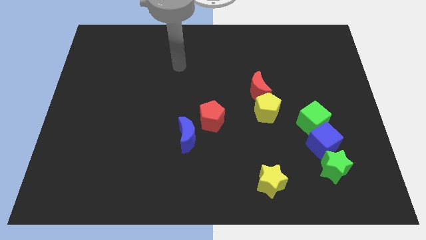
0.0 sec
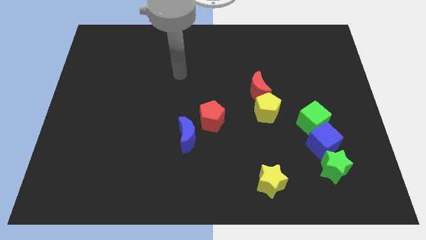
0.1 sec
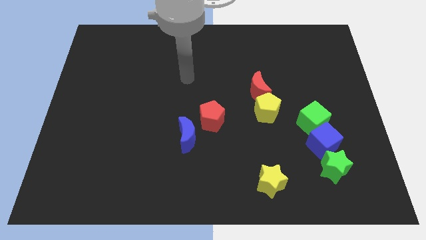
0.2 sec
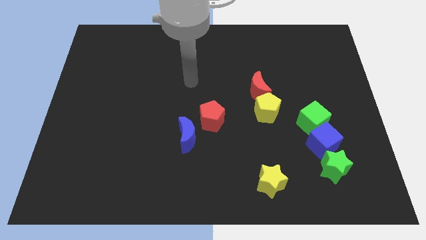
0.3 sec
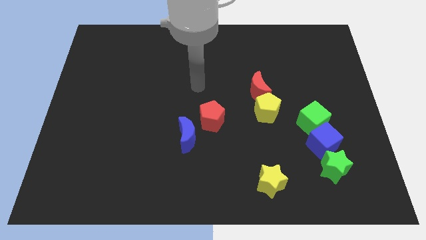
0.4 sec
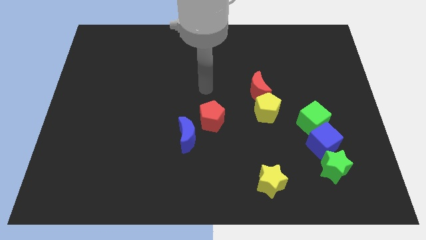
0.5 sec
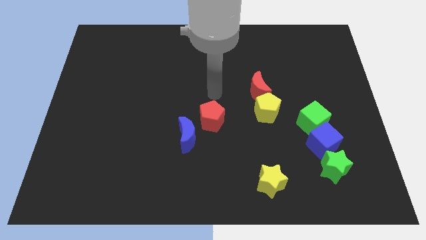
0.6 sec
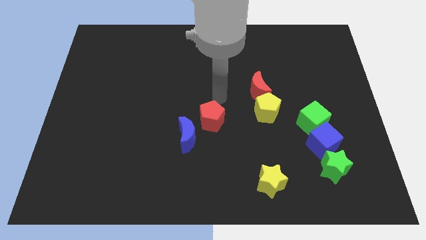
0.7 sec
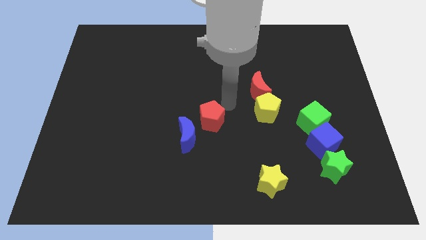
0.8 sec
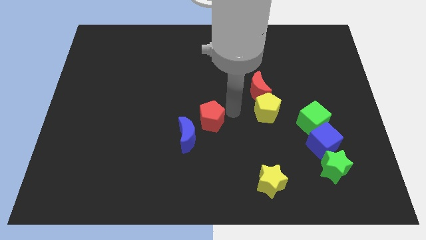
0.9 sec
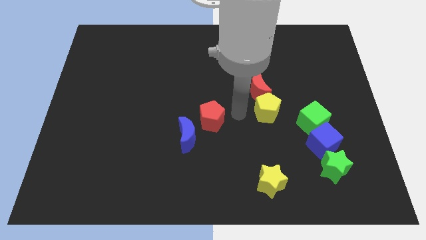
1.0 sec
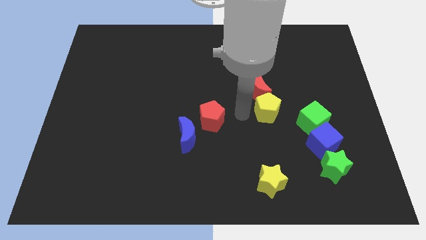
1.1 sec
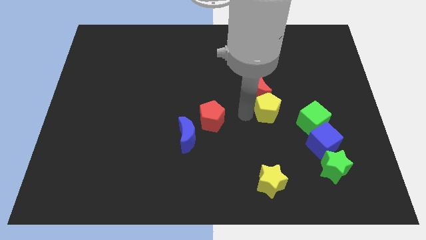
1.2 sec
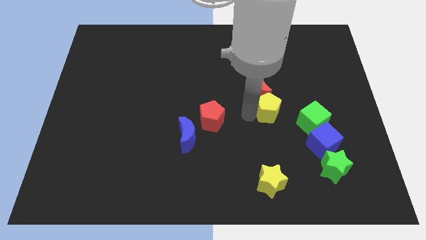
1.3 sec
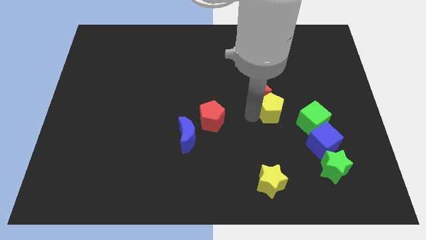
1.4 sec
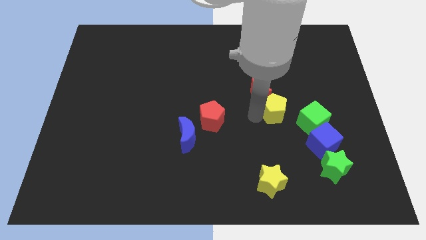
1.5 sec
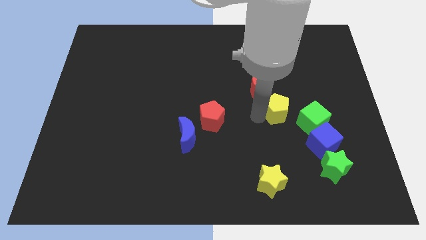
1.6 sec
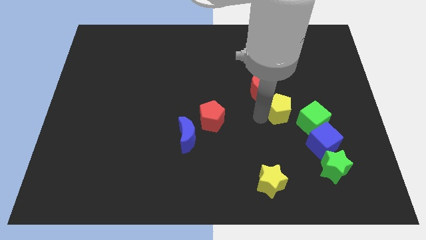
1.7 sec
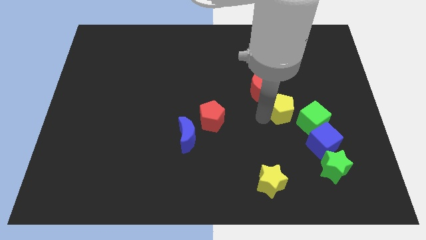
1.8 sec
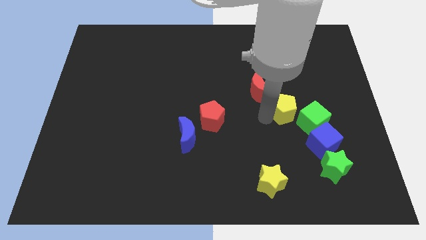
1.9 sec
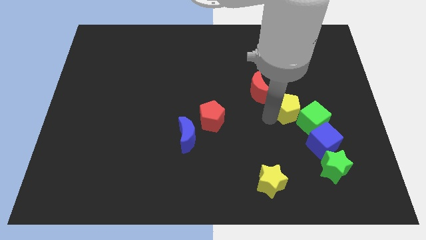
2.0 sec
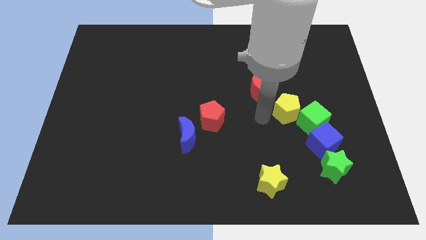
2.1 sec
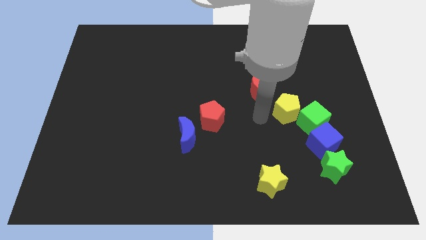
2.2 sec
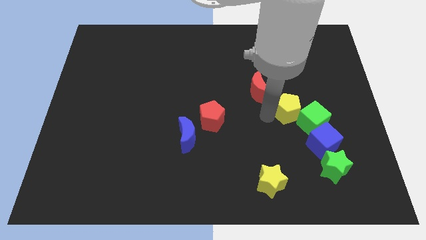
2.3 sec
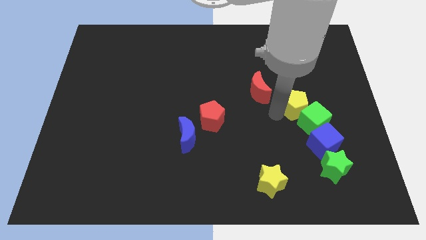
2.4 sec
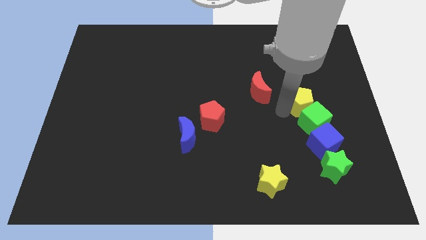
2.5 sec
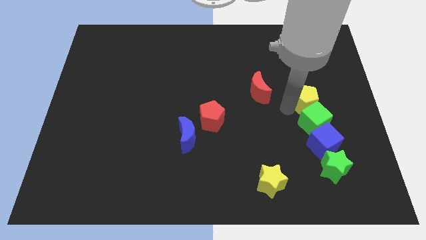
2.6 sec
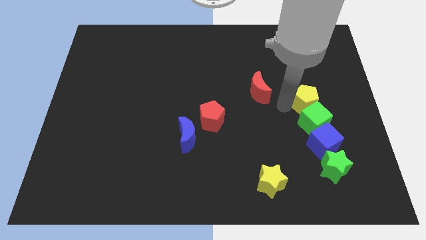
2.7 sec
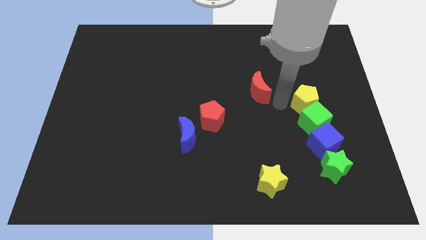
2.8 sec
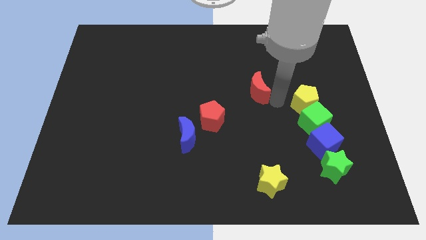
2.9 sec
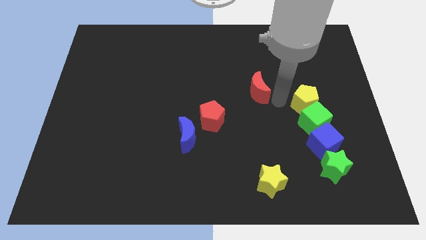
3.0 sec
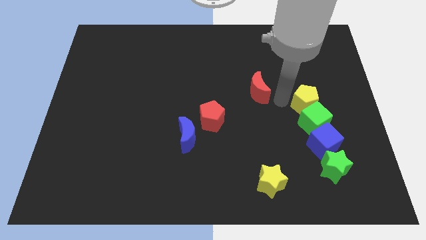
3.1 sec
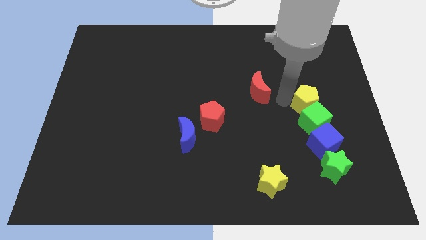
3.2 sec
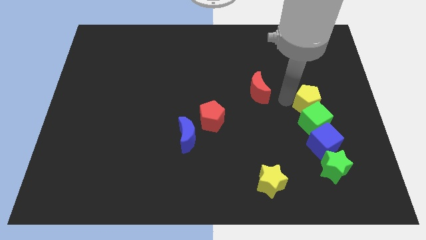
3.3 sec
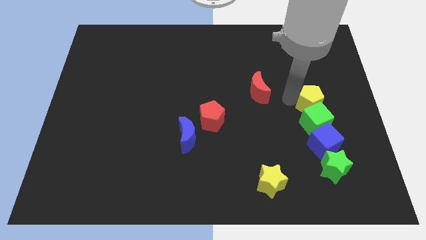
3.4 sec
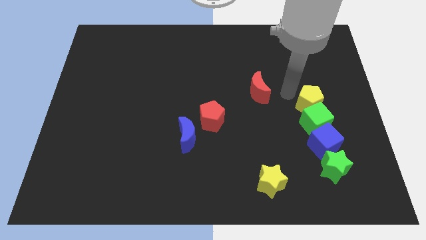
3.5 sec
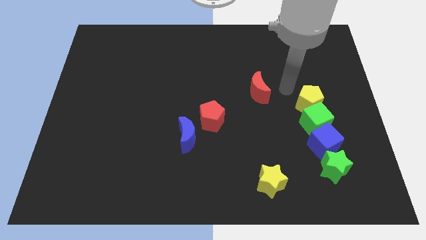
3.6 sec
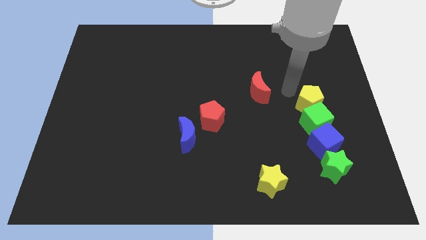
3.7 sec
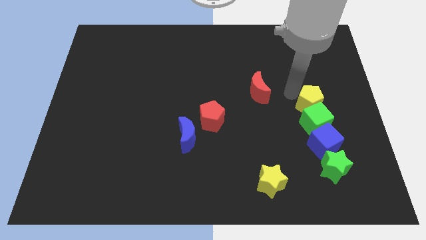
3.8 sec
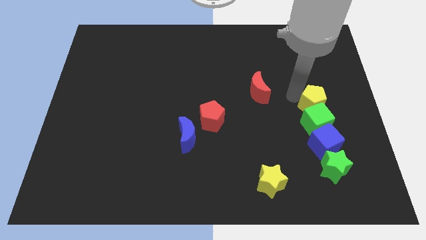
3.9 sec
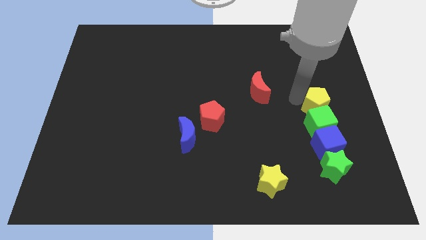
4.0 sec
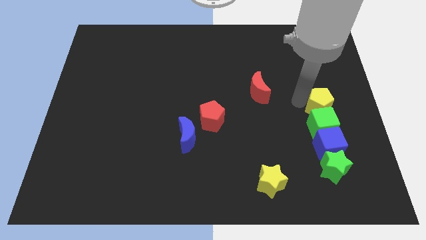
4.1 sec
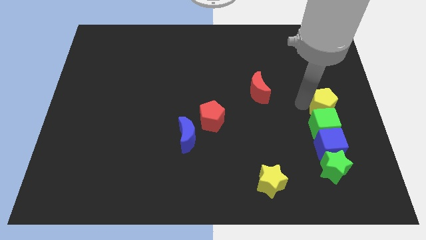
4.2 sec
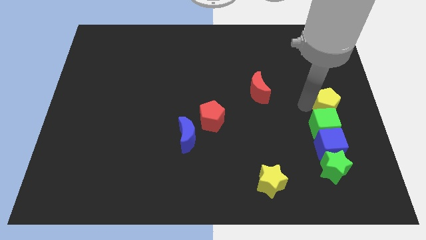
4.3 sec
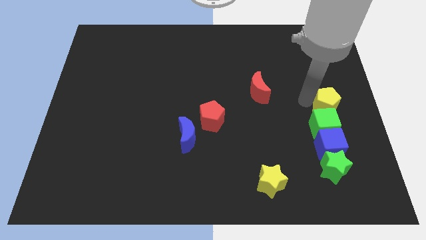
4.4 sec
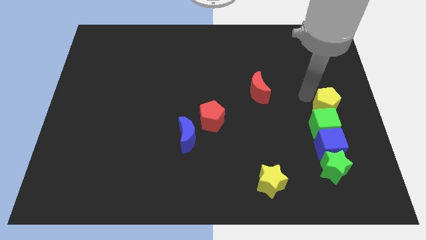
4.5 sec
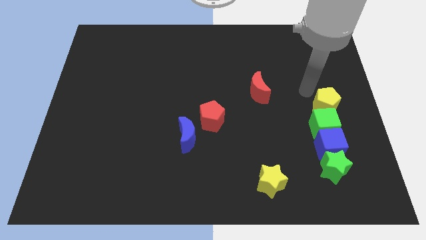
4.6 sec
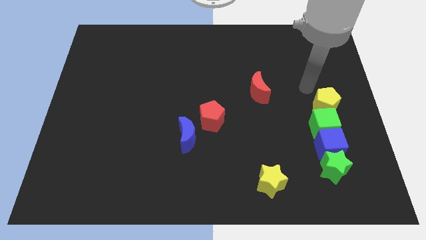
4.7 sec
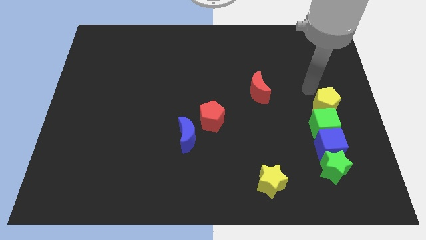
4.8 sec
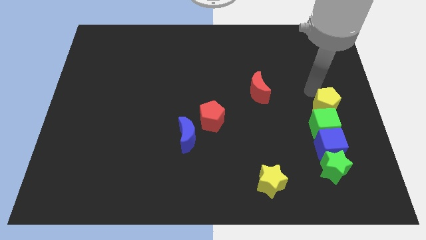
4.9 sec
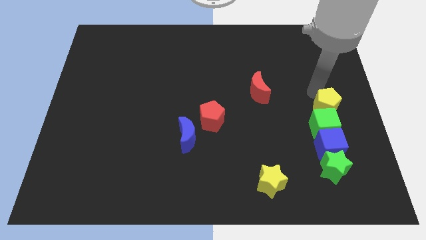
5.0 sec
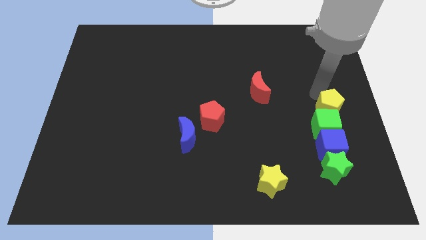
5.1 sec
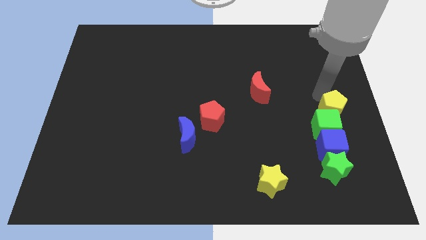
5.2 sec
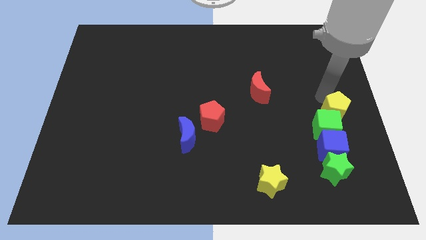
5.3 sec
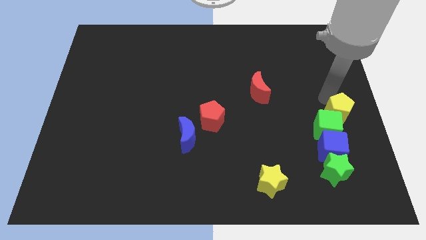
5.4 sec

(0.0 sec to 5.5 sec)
move the yellow pentagon to the top right of the blue cube

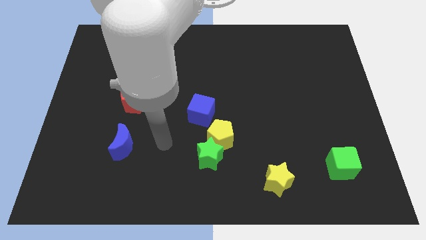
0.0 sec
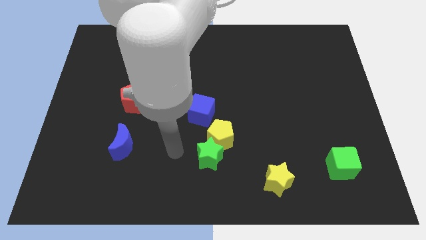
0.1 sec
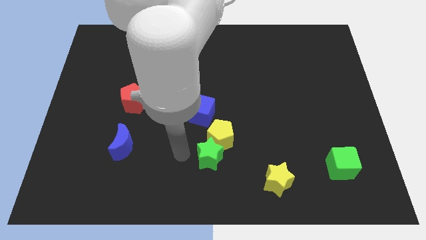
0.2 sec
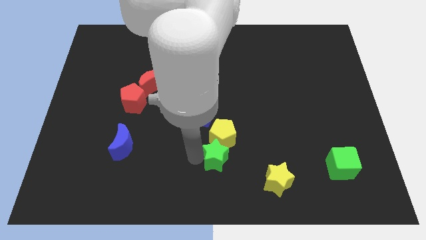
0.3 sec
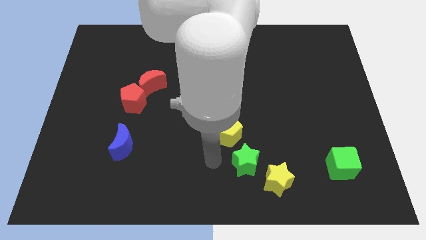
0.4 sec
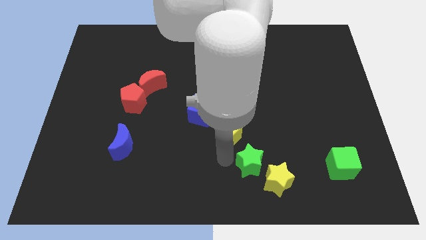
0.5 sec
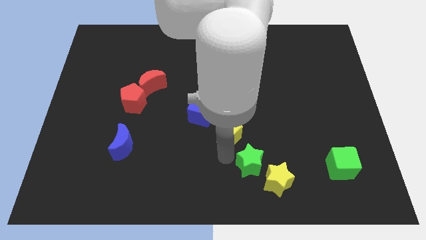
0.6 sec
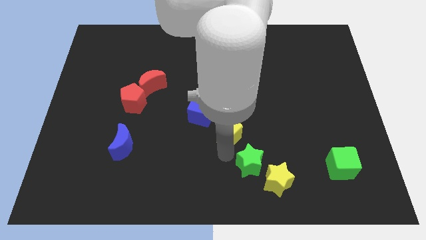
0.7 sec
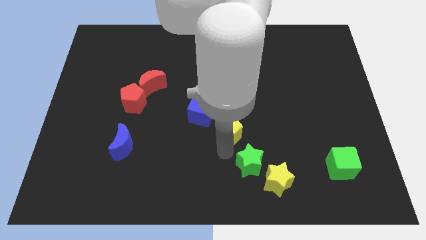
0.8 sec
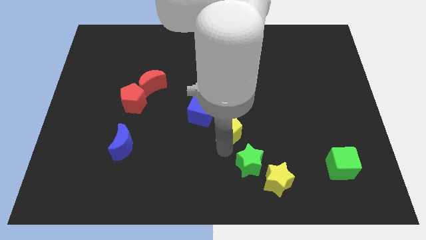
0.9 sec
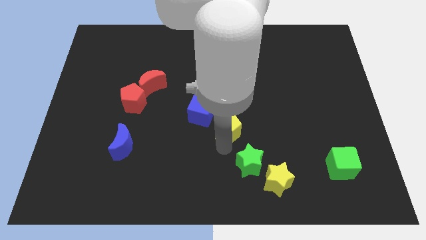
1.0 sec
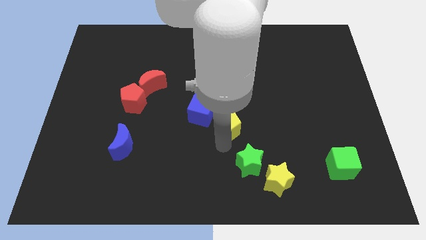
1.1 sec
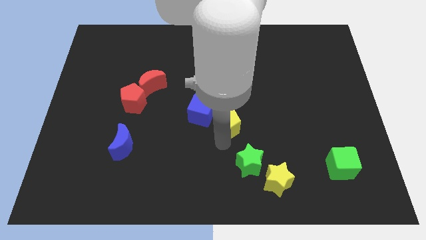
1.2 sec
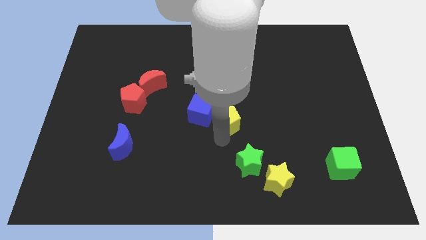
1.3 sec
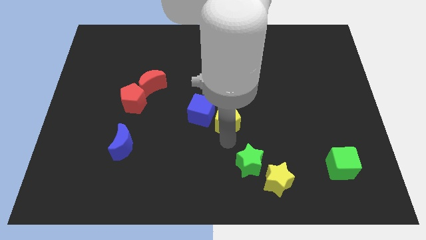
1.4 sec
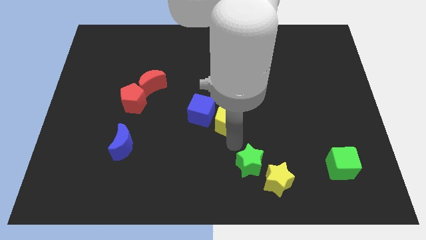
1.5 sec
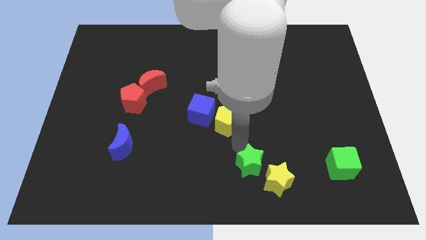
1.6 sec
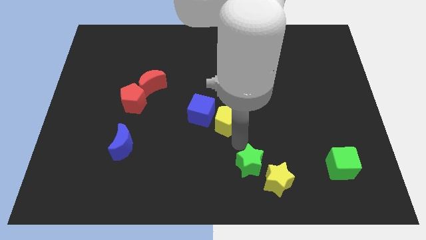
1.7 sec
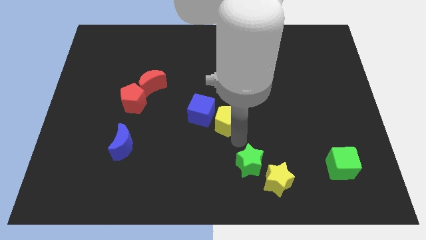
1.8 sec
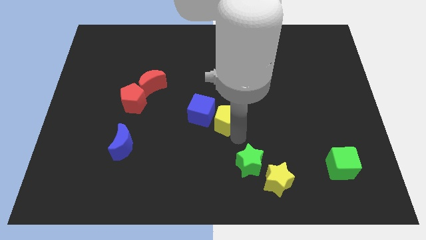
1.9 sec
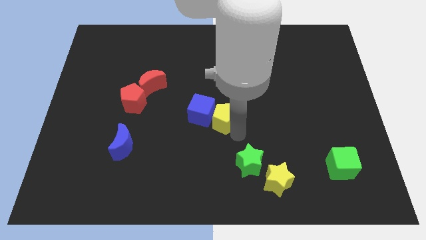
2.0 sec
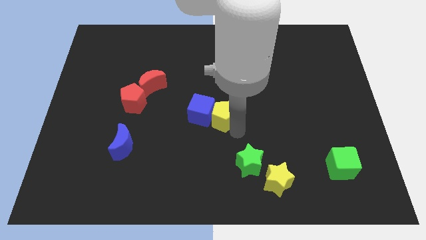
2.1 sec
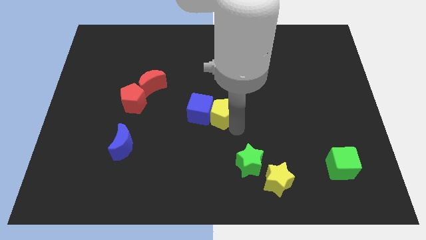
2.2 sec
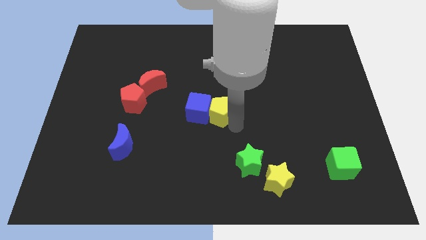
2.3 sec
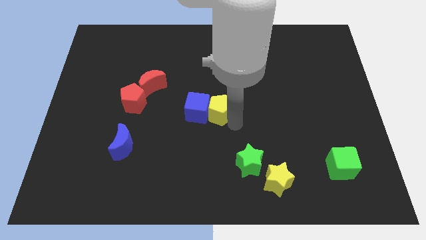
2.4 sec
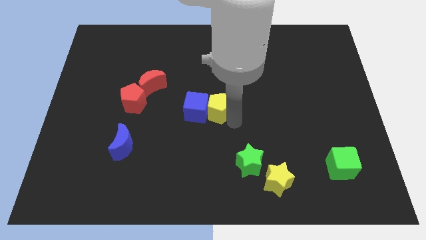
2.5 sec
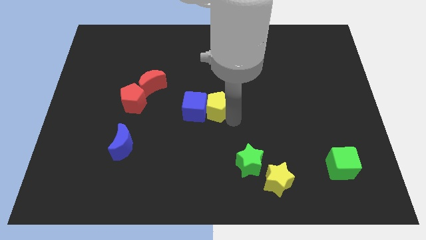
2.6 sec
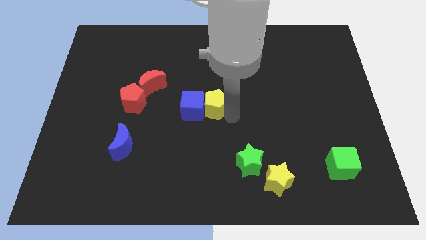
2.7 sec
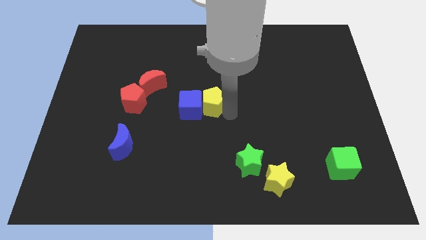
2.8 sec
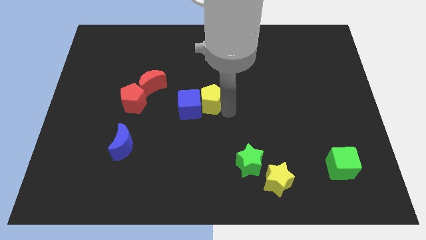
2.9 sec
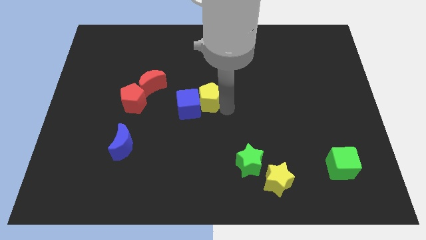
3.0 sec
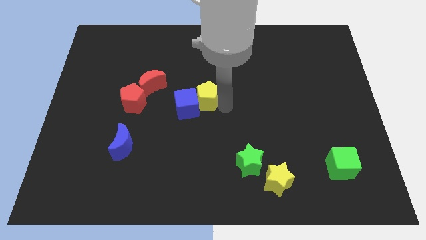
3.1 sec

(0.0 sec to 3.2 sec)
slide the yellow pentagon right of the red moon
